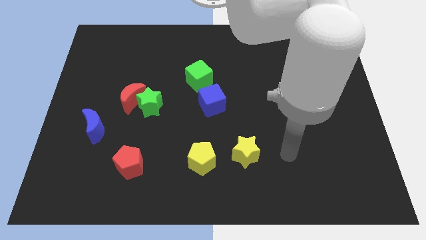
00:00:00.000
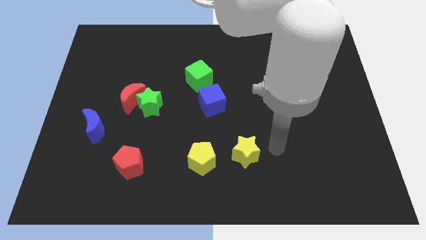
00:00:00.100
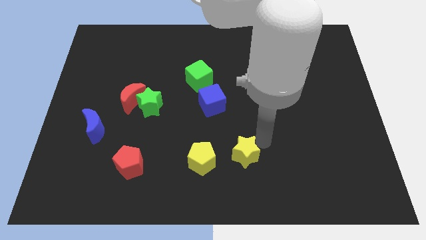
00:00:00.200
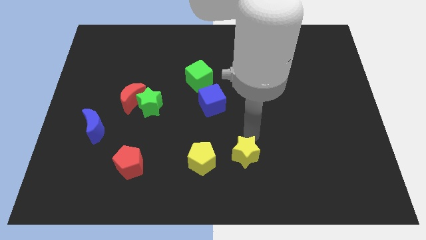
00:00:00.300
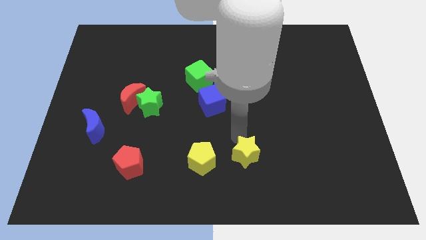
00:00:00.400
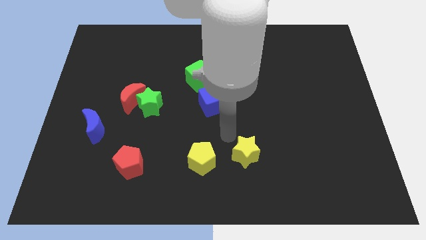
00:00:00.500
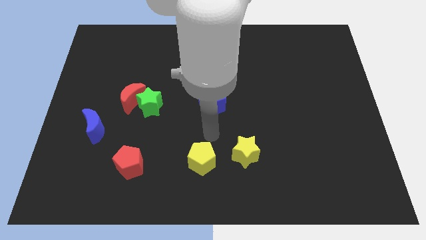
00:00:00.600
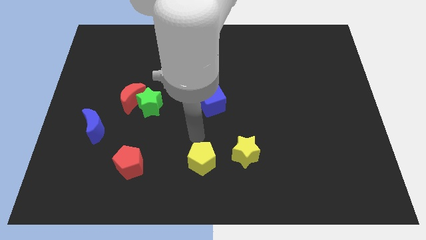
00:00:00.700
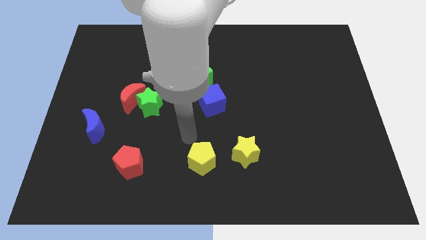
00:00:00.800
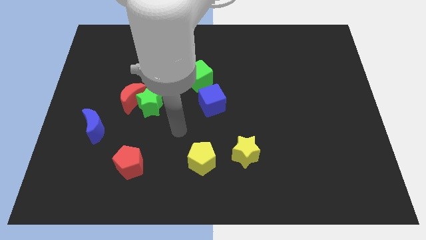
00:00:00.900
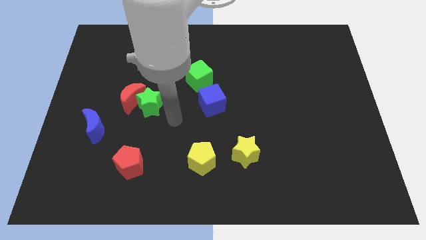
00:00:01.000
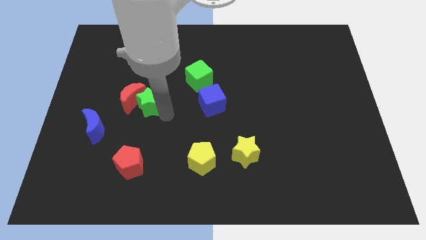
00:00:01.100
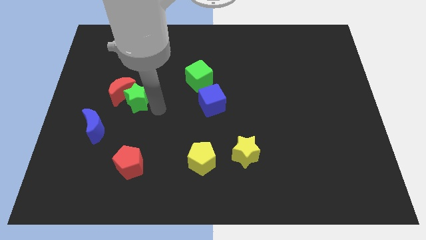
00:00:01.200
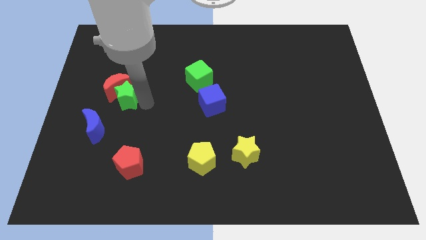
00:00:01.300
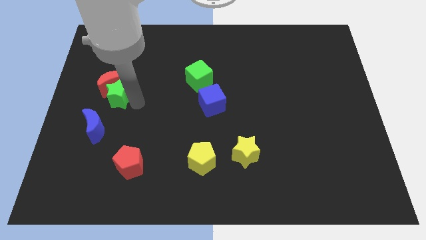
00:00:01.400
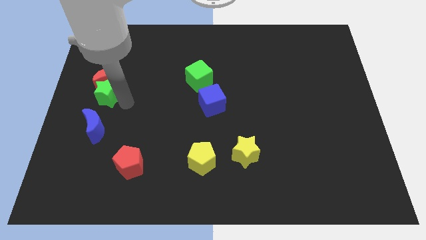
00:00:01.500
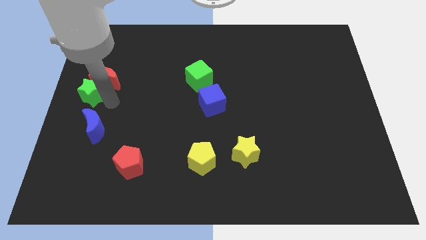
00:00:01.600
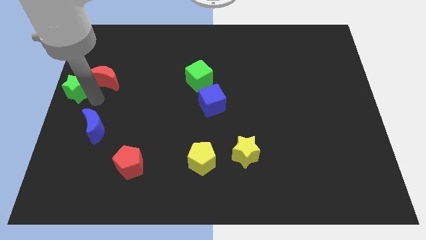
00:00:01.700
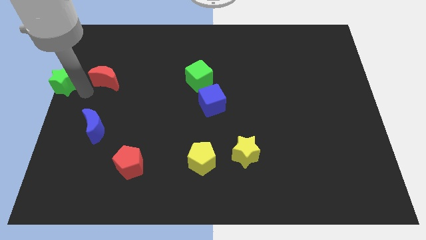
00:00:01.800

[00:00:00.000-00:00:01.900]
separate the red moon from the green star

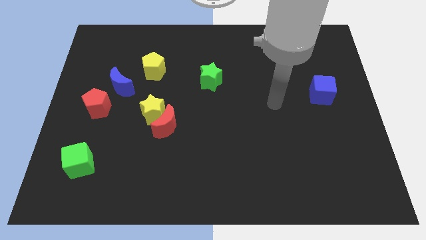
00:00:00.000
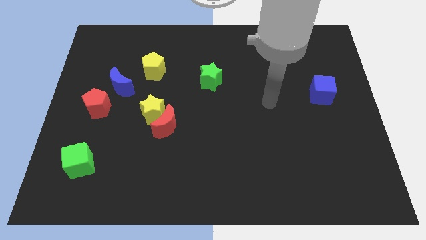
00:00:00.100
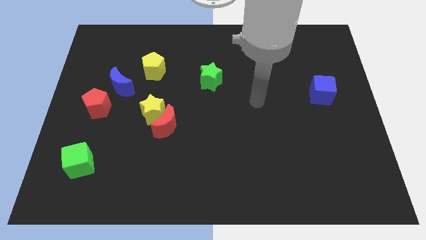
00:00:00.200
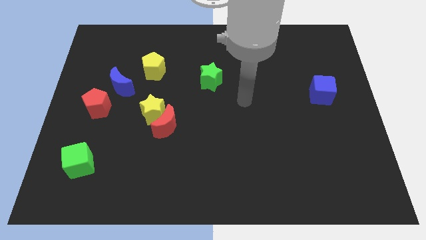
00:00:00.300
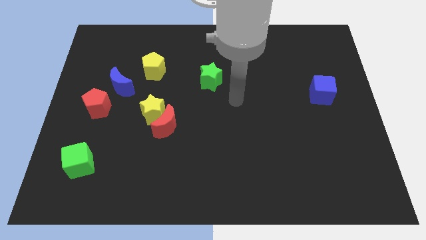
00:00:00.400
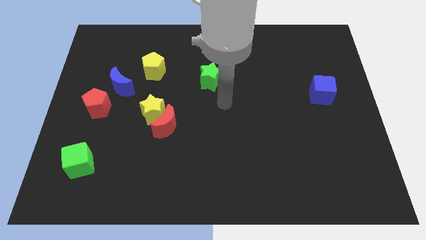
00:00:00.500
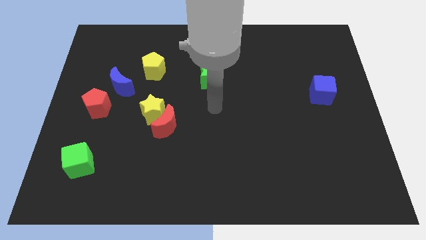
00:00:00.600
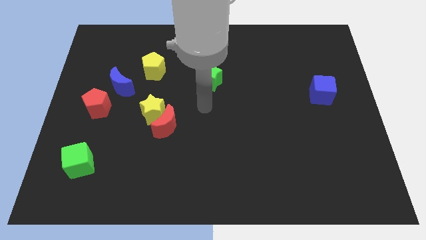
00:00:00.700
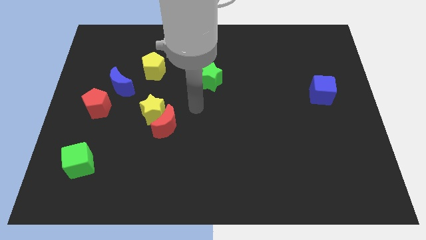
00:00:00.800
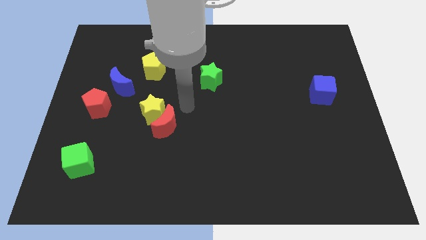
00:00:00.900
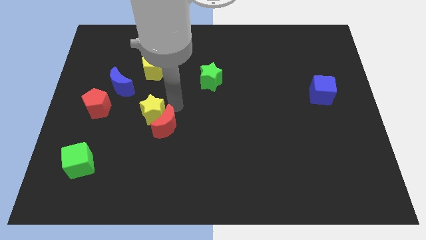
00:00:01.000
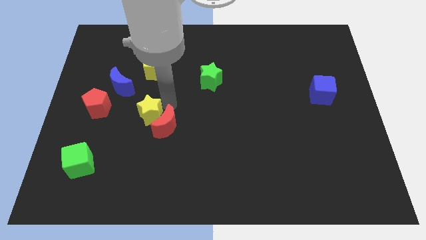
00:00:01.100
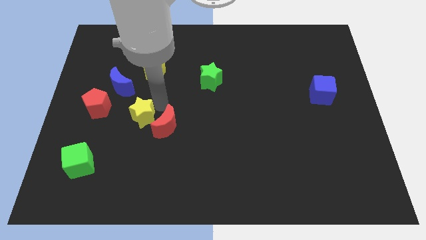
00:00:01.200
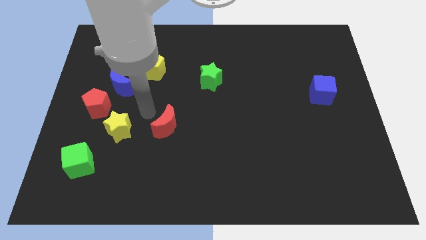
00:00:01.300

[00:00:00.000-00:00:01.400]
pull the red moon apart from the yellow star

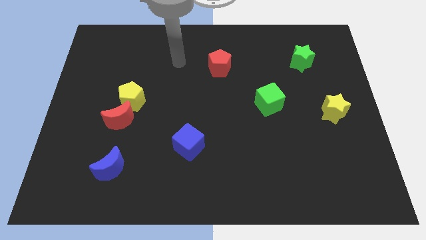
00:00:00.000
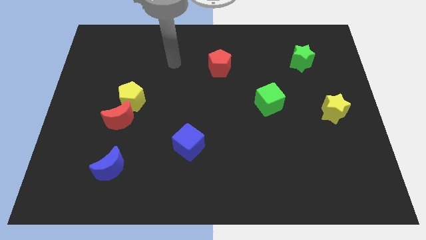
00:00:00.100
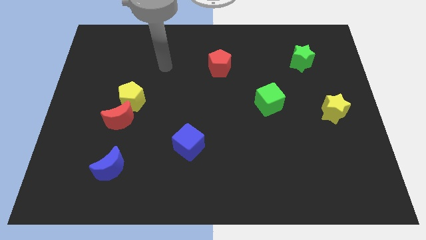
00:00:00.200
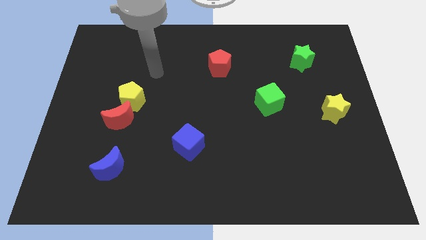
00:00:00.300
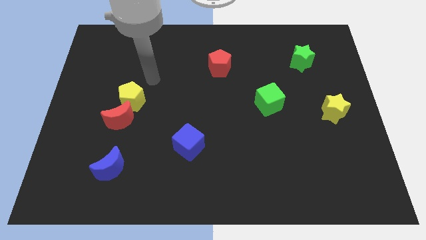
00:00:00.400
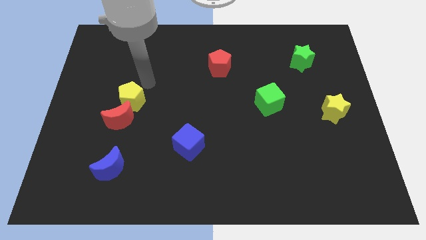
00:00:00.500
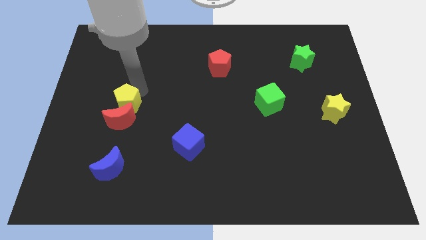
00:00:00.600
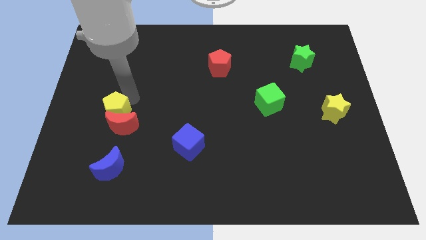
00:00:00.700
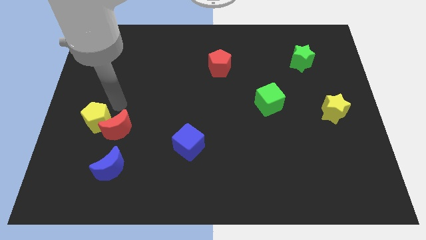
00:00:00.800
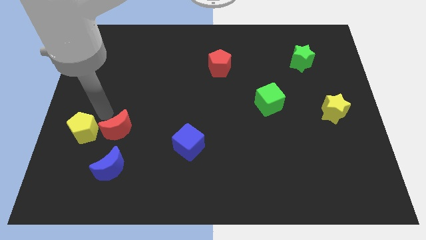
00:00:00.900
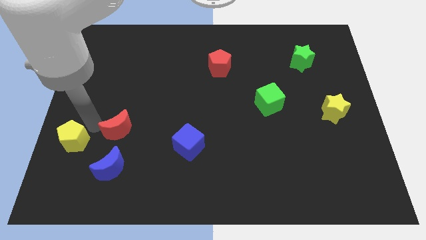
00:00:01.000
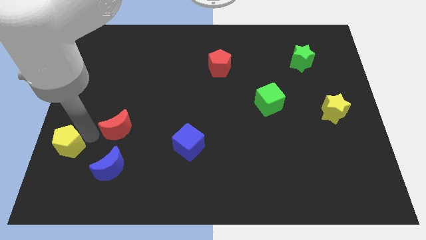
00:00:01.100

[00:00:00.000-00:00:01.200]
move the red moon away from the yellow pentagon

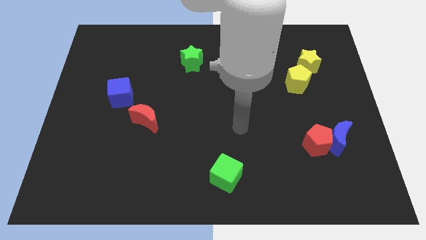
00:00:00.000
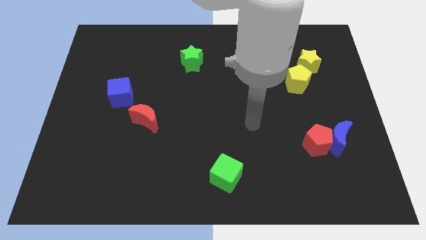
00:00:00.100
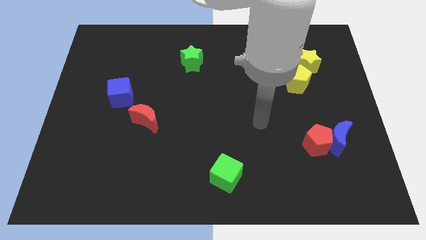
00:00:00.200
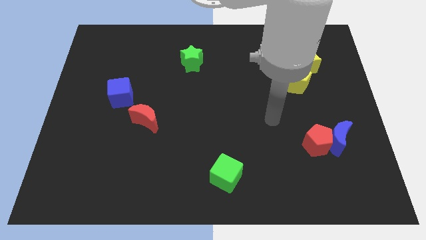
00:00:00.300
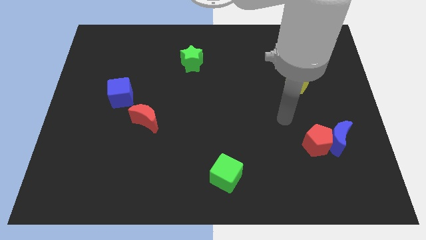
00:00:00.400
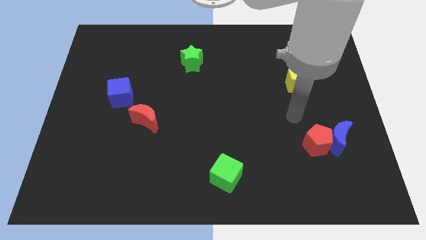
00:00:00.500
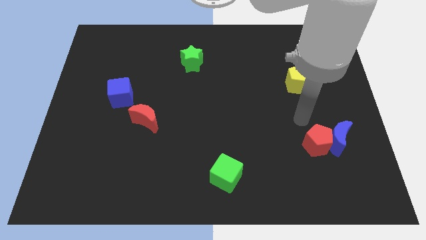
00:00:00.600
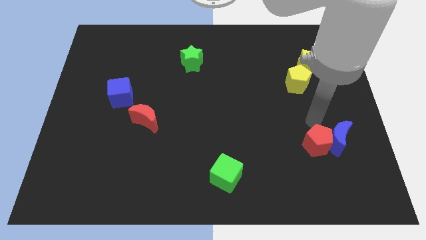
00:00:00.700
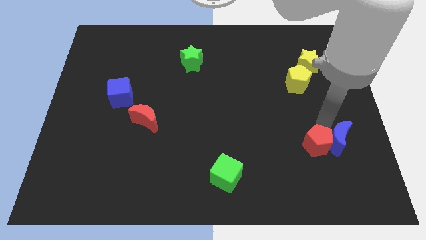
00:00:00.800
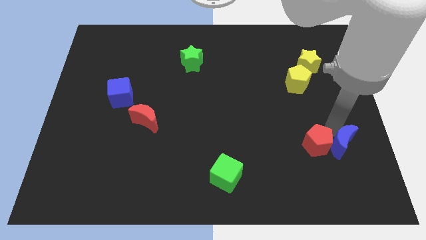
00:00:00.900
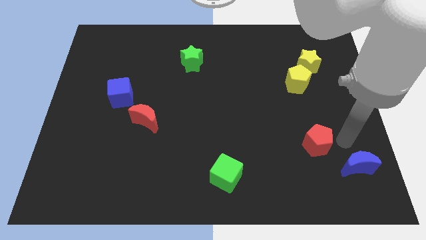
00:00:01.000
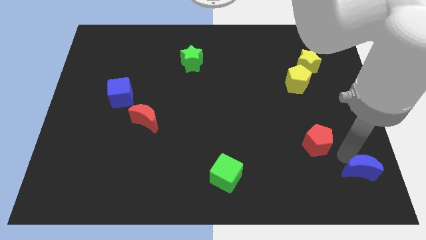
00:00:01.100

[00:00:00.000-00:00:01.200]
separate the red pentagon from the blue moon

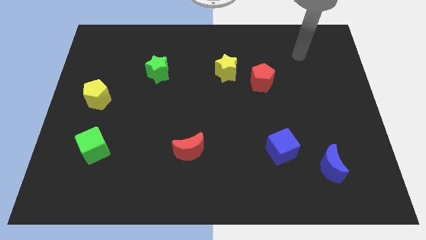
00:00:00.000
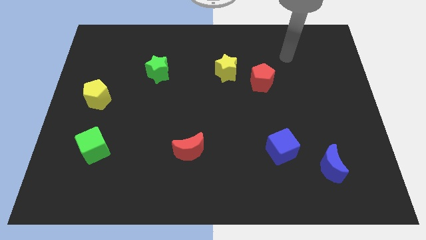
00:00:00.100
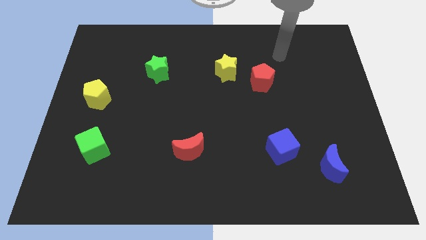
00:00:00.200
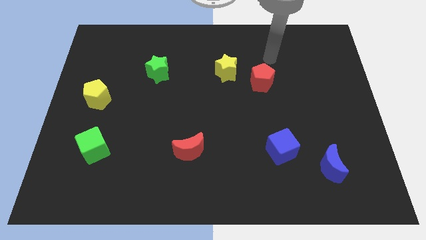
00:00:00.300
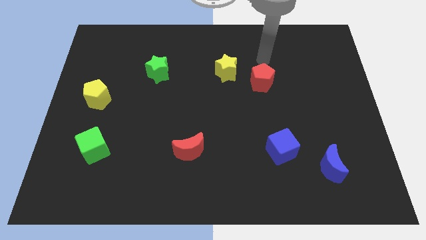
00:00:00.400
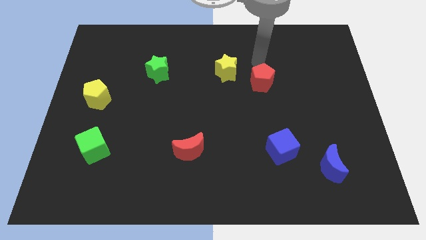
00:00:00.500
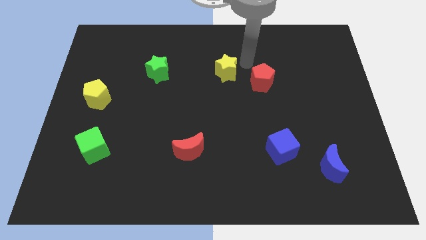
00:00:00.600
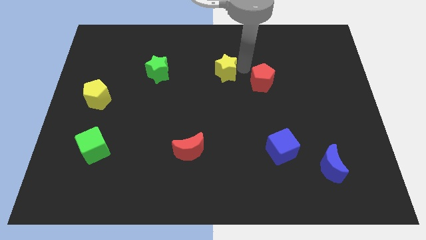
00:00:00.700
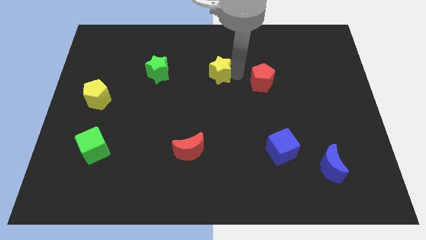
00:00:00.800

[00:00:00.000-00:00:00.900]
separate the red pentagon from the yellow star

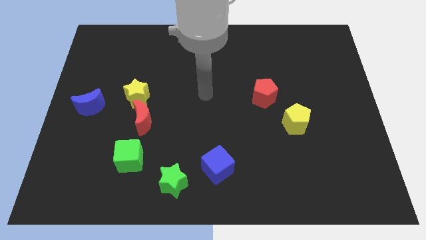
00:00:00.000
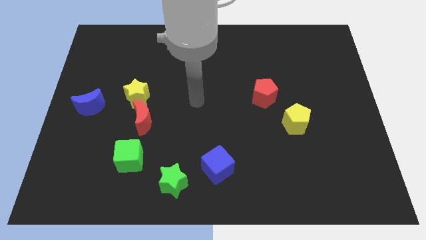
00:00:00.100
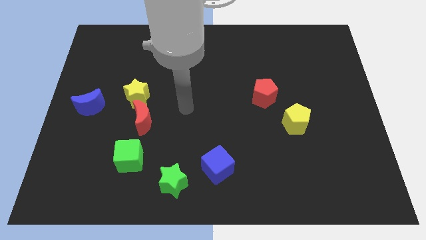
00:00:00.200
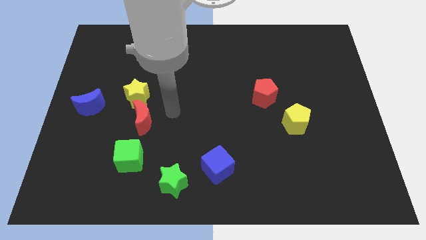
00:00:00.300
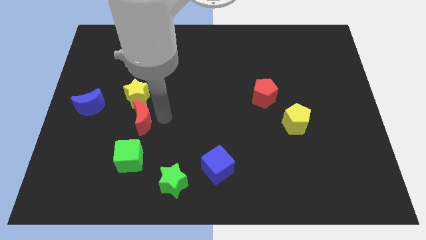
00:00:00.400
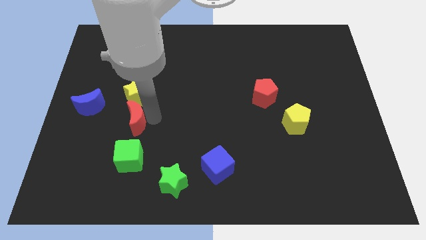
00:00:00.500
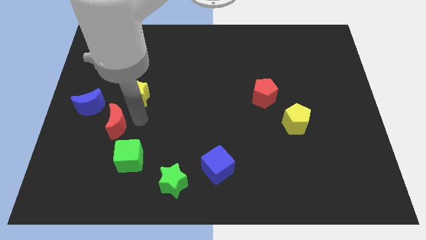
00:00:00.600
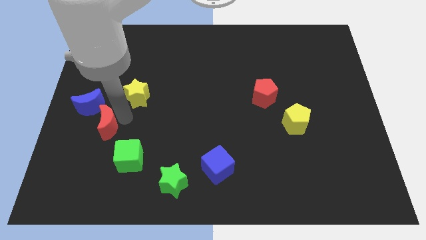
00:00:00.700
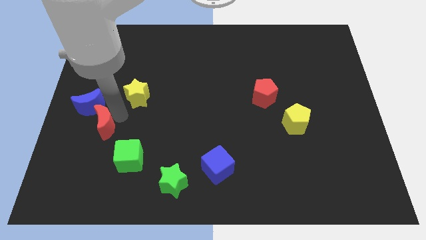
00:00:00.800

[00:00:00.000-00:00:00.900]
pull the yellow star apart from the red moon

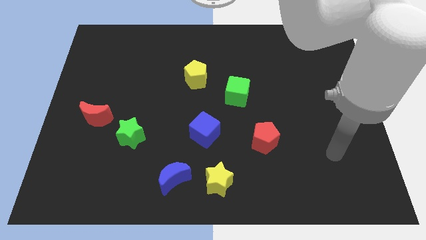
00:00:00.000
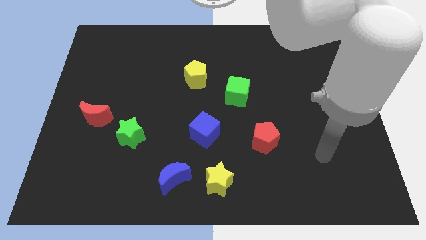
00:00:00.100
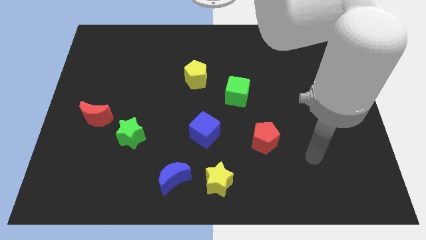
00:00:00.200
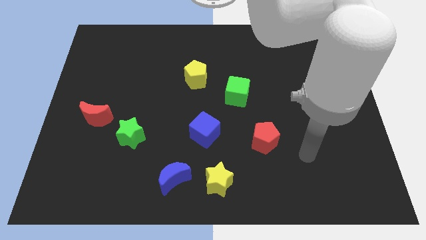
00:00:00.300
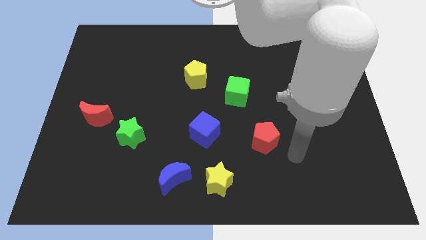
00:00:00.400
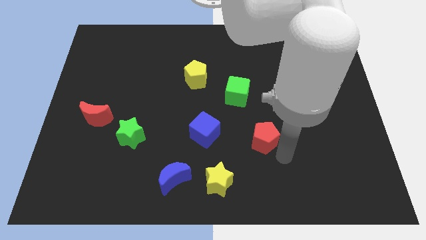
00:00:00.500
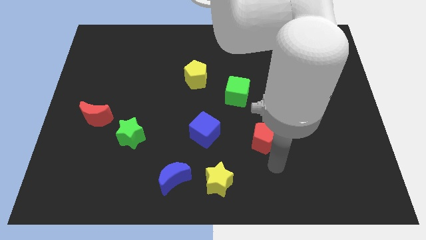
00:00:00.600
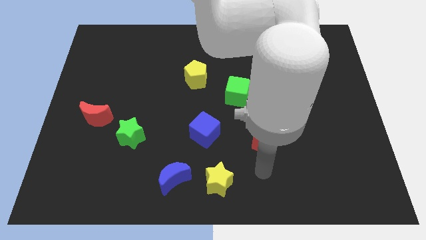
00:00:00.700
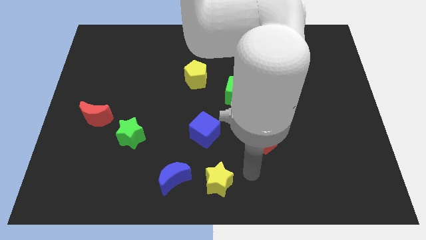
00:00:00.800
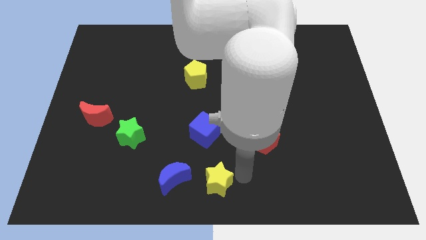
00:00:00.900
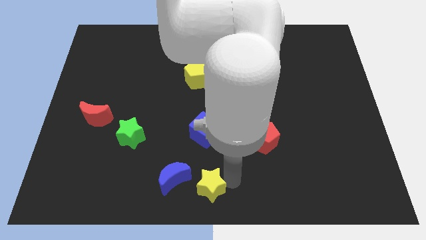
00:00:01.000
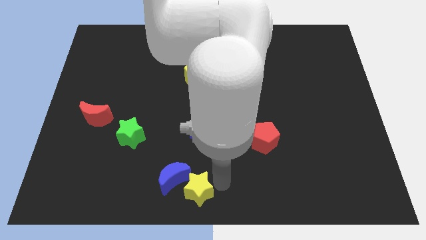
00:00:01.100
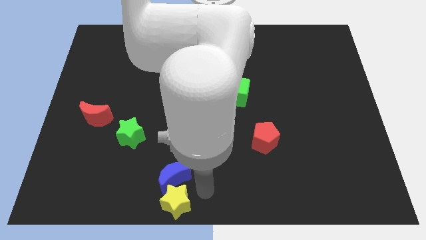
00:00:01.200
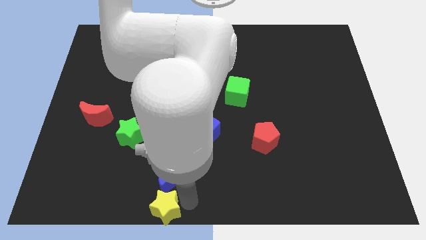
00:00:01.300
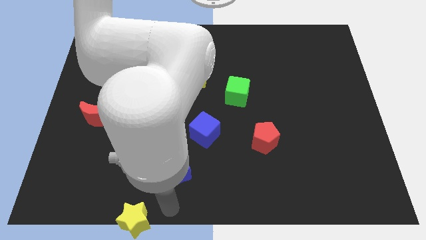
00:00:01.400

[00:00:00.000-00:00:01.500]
pull the blue moon apart from the yellow star

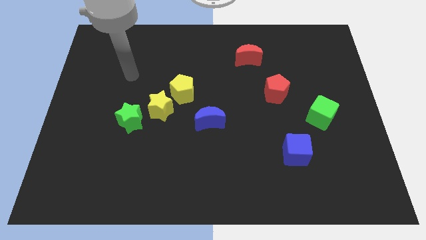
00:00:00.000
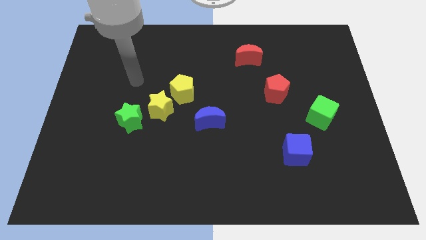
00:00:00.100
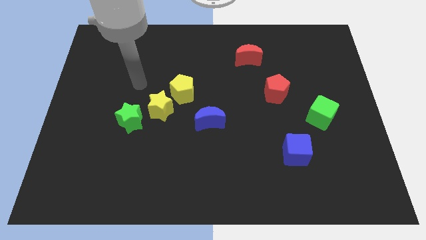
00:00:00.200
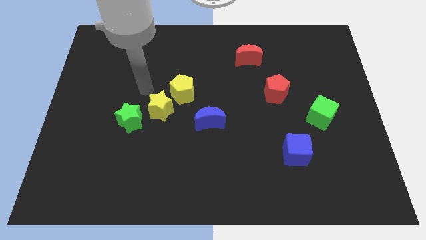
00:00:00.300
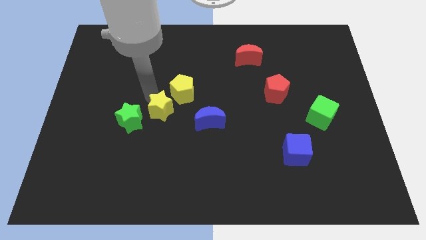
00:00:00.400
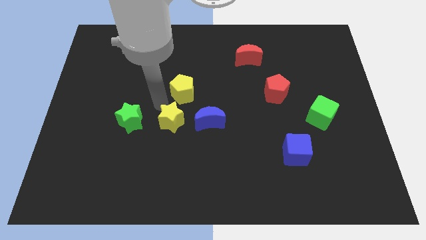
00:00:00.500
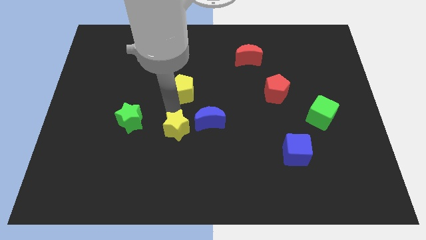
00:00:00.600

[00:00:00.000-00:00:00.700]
separate the yellow pentagon from the yellow star
